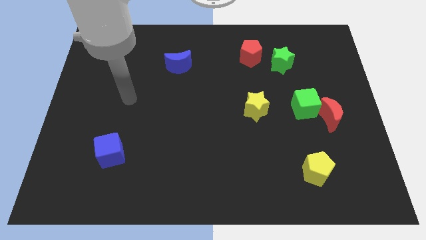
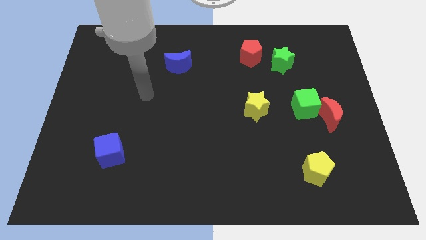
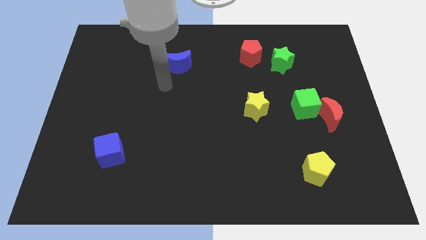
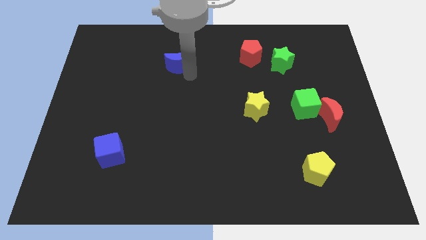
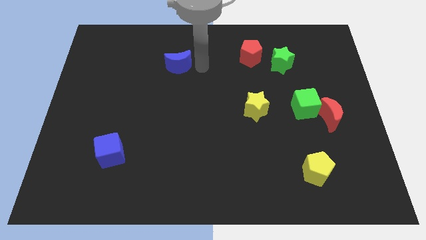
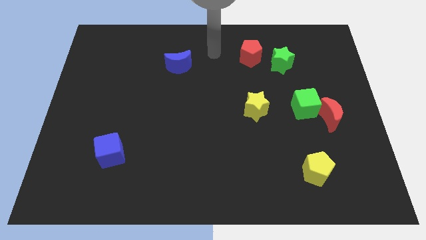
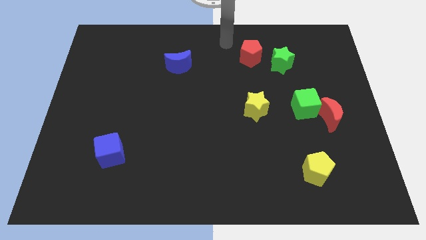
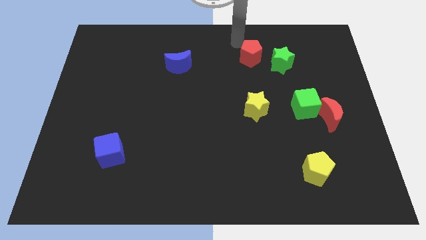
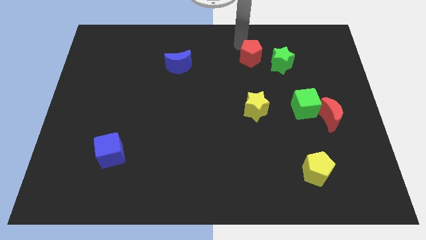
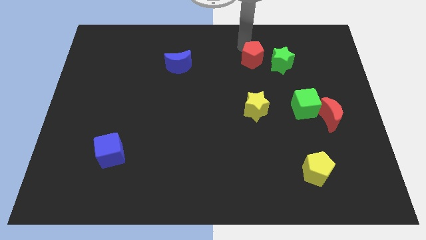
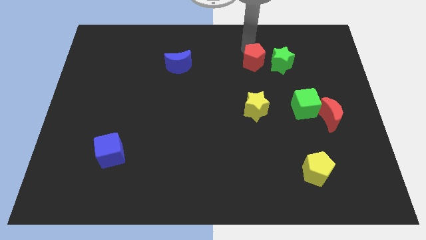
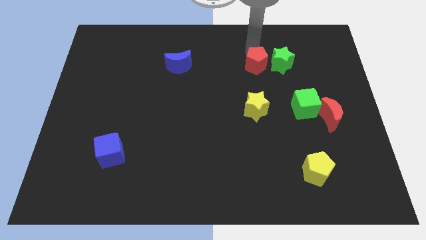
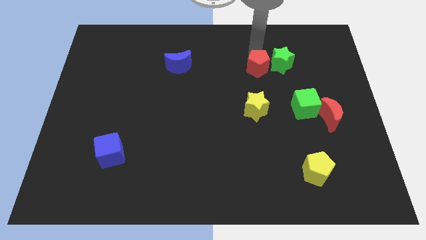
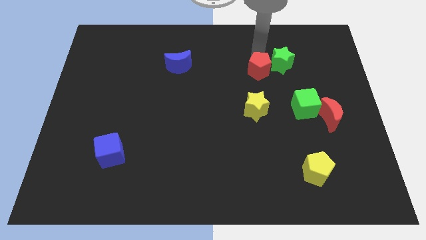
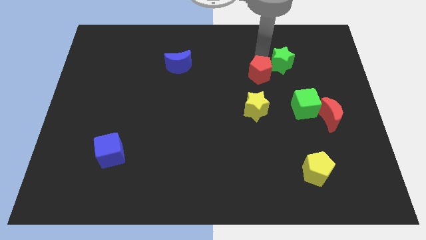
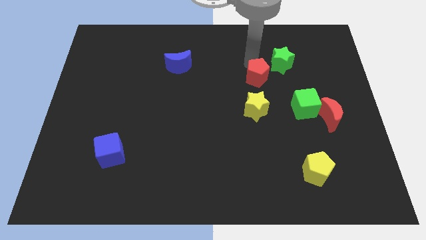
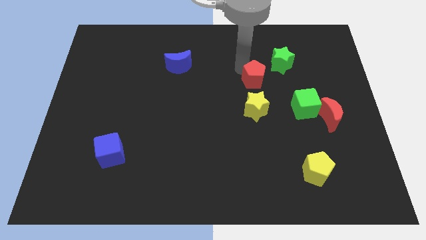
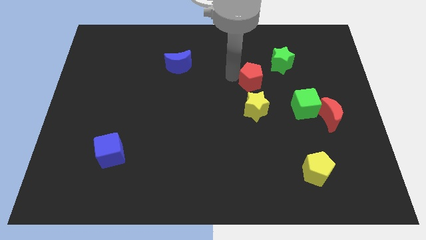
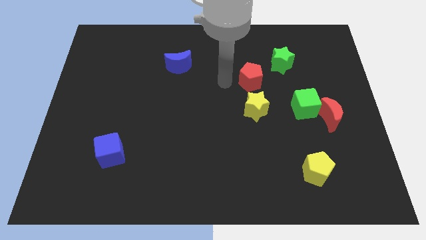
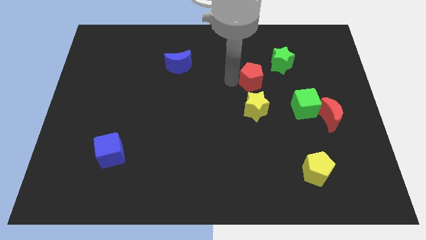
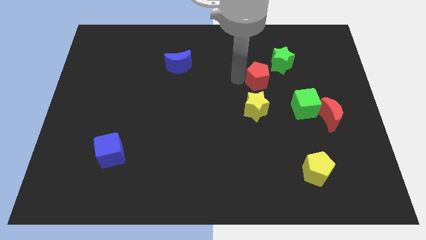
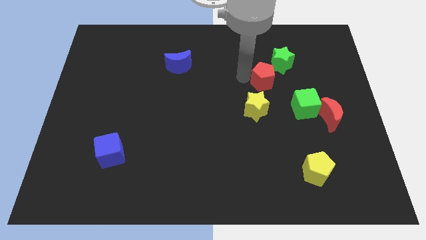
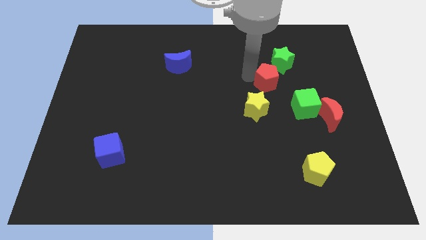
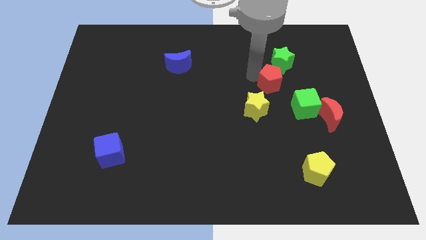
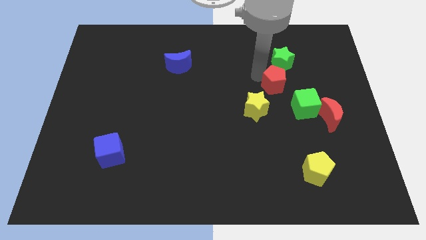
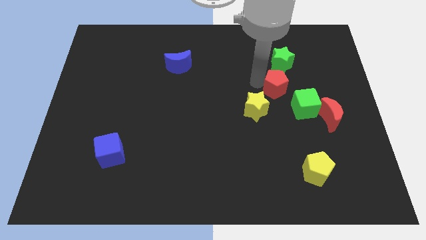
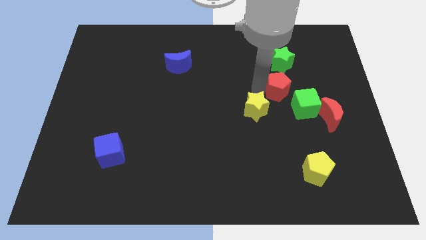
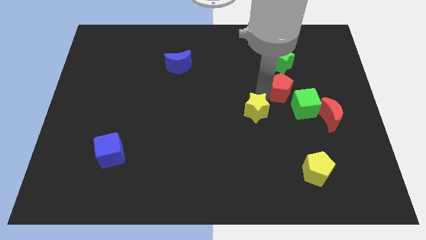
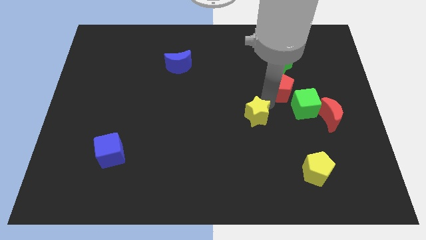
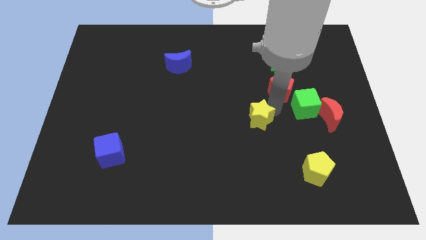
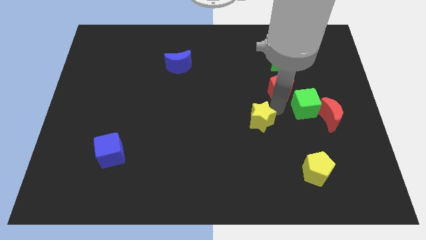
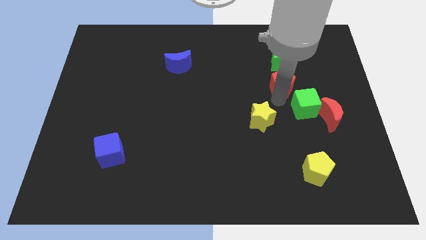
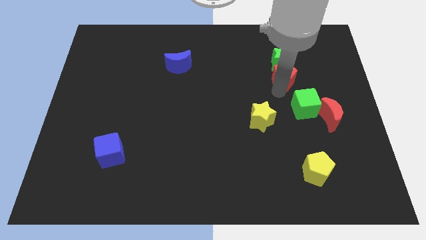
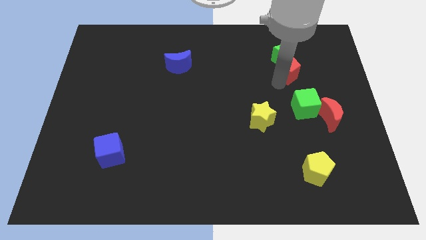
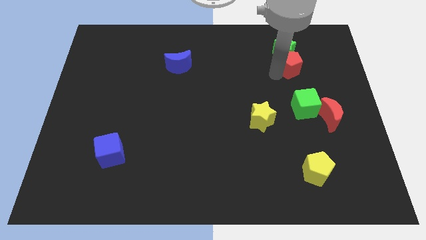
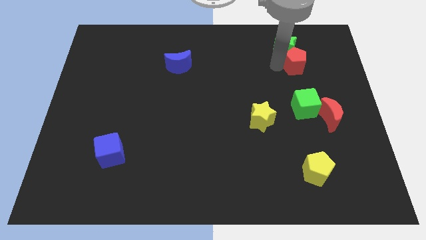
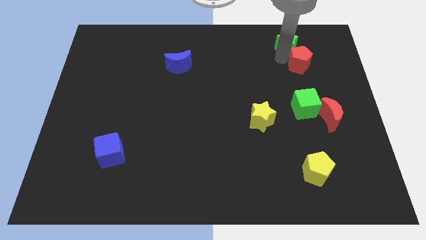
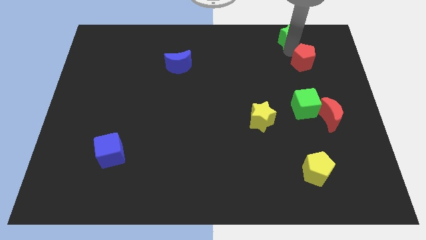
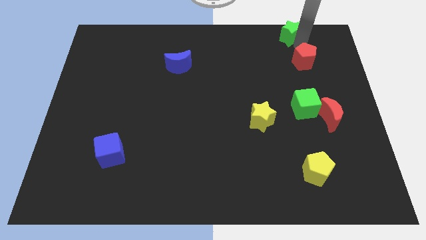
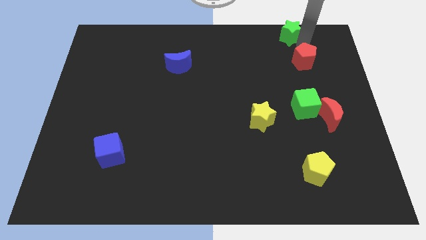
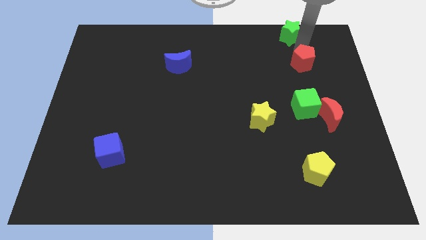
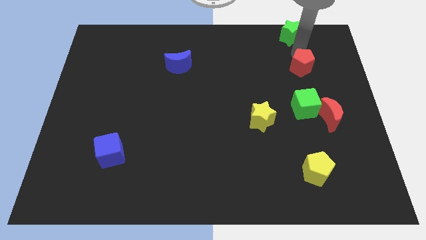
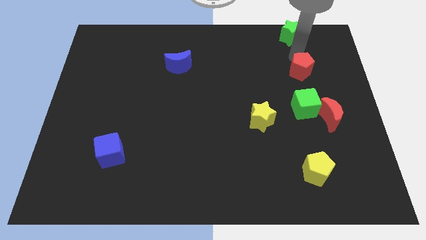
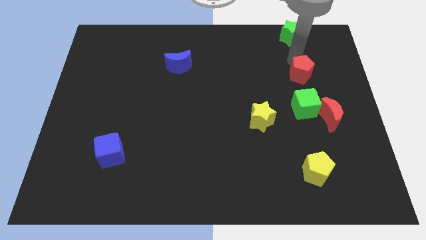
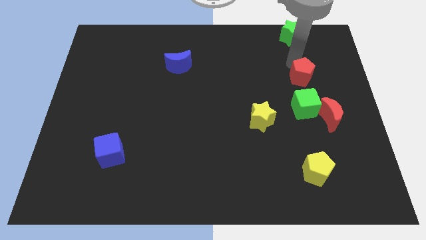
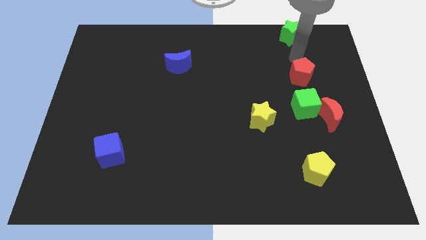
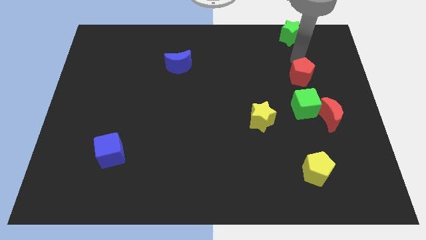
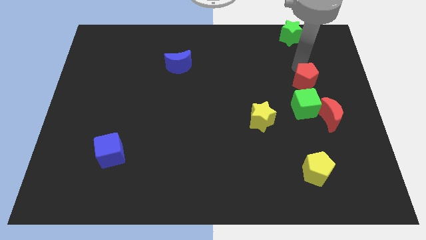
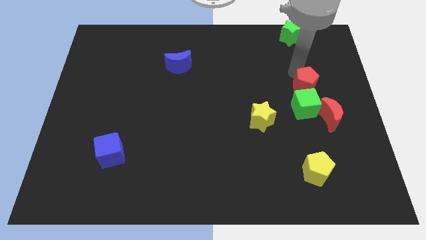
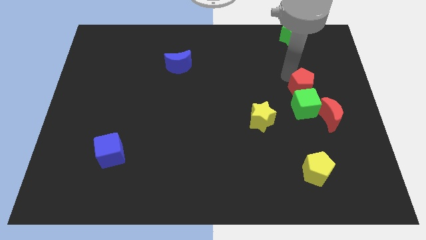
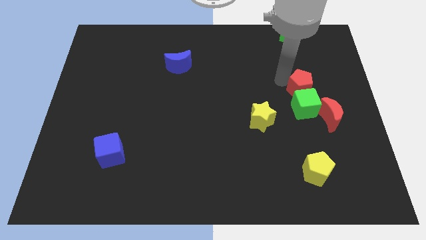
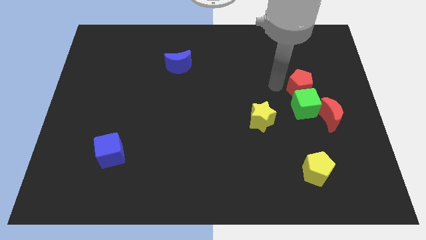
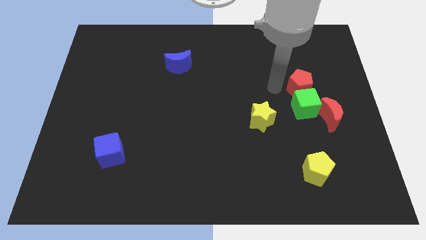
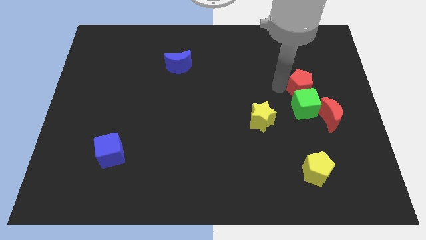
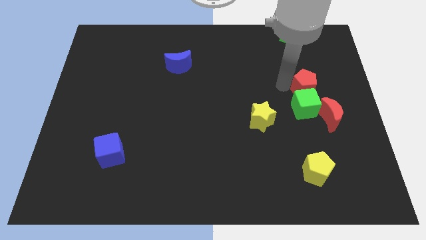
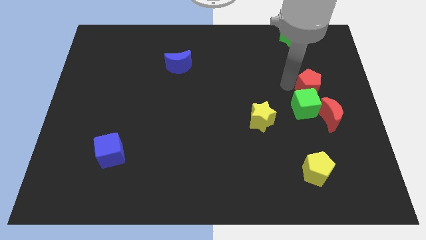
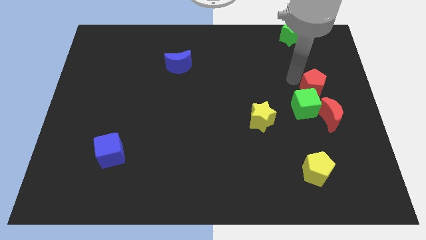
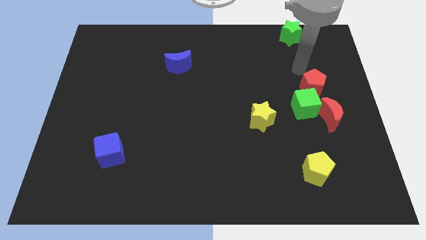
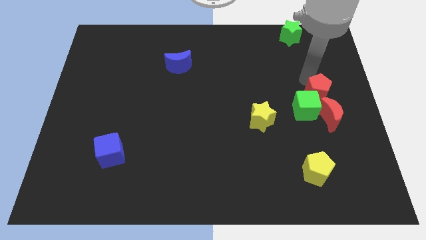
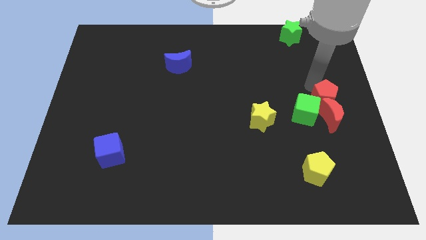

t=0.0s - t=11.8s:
move the red pentagon to the red moon

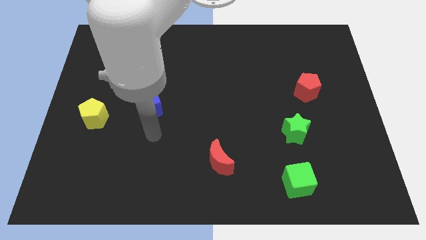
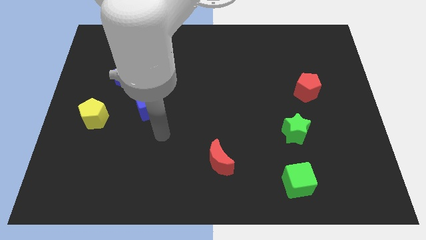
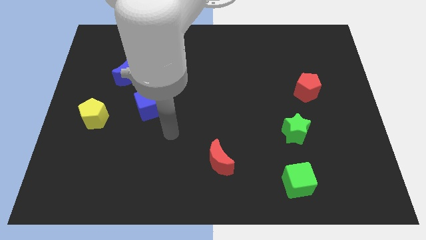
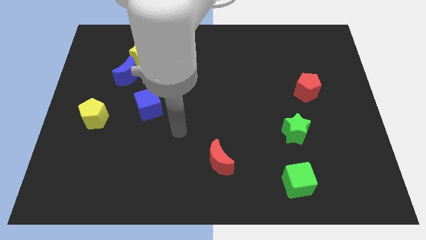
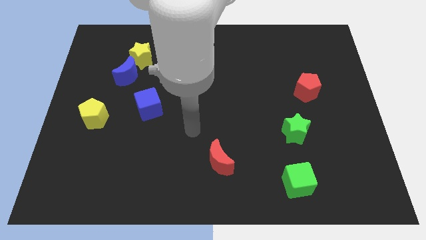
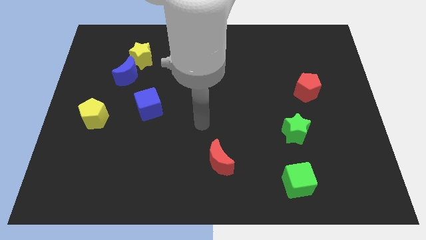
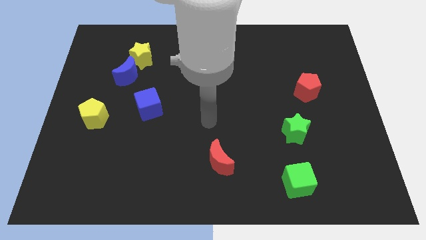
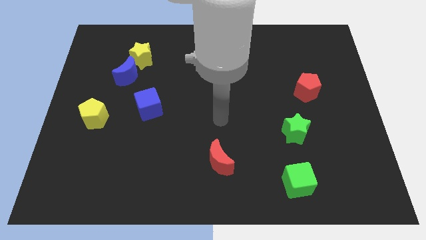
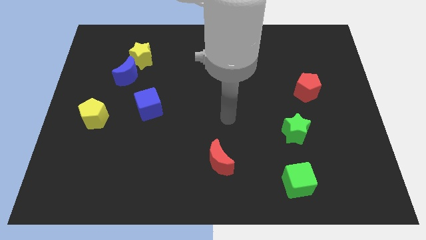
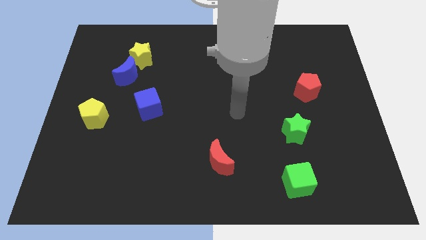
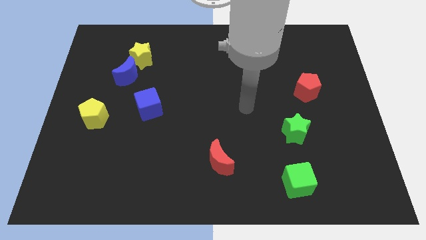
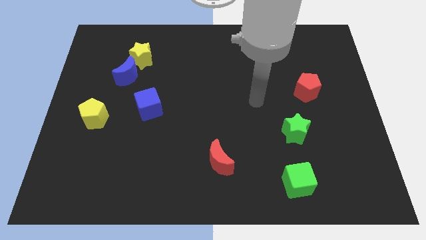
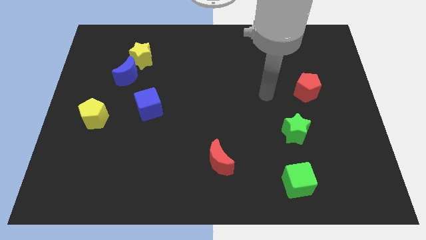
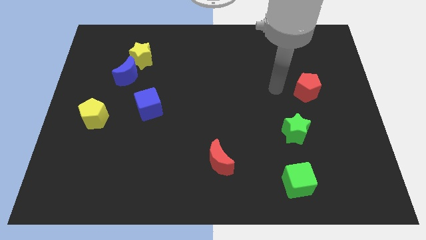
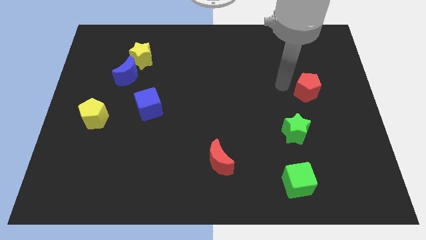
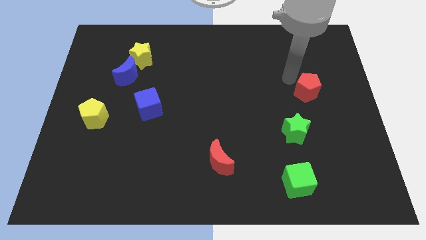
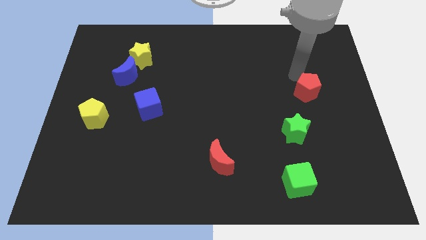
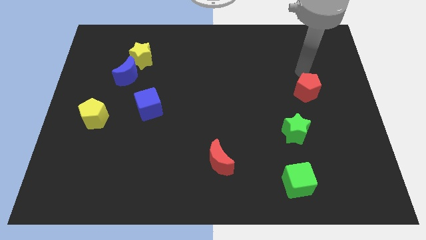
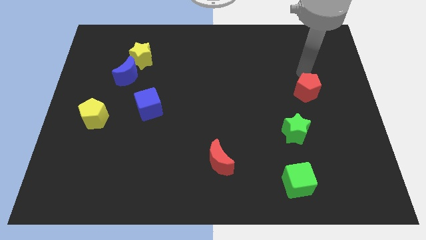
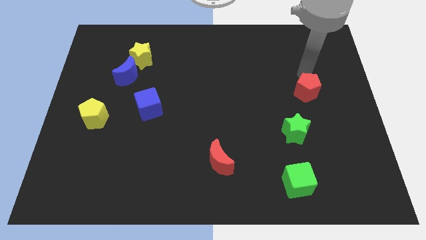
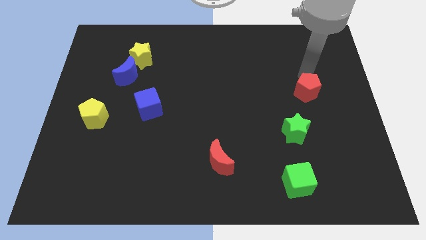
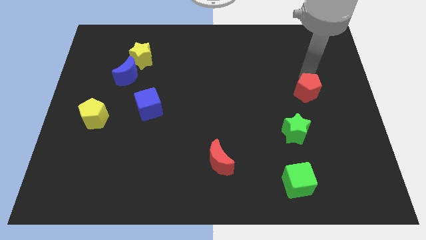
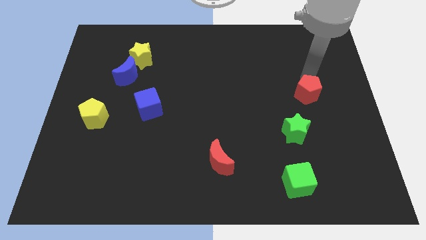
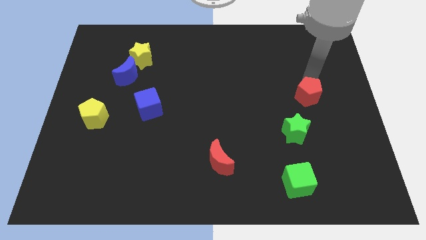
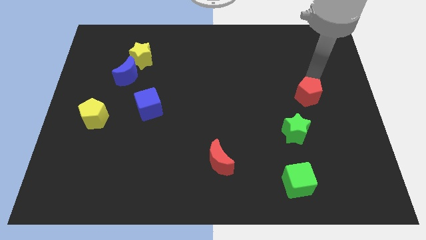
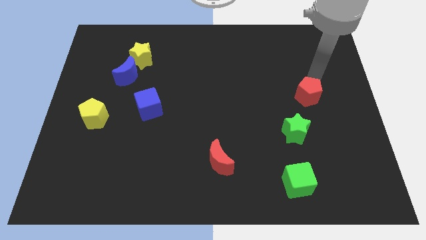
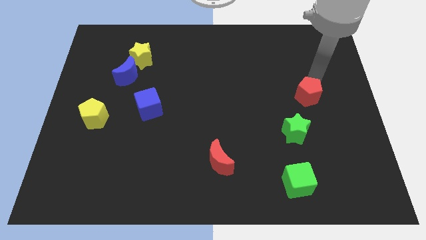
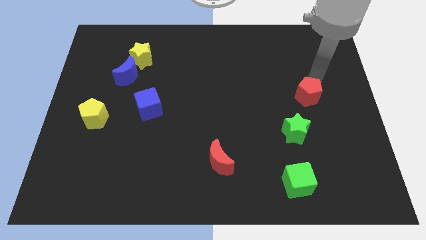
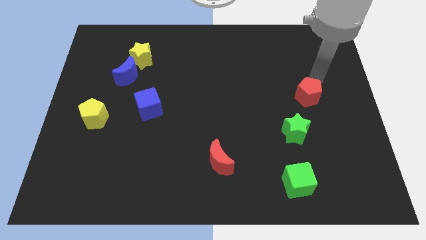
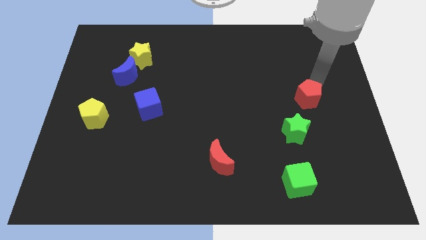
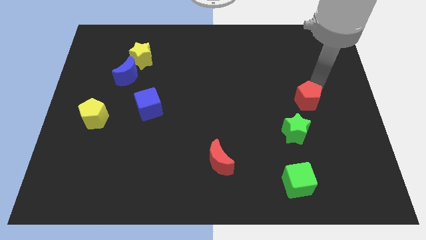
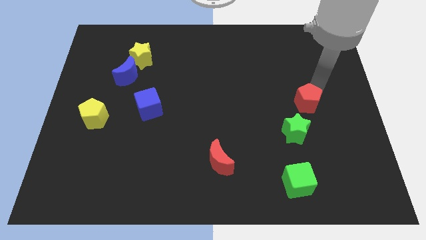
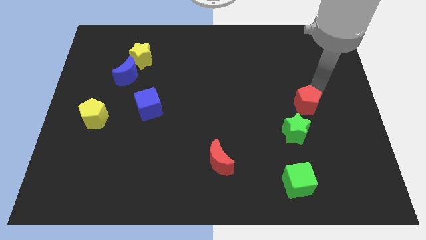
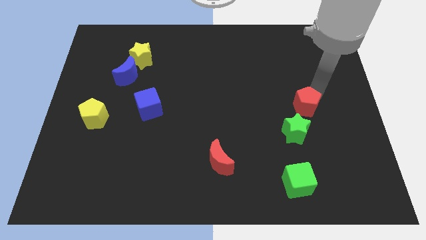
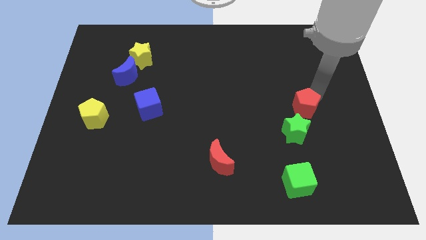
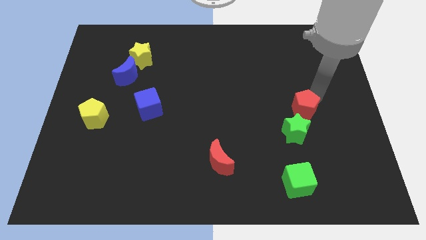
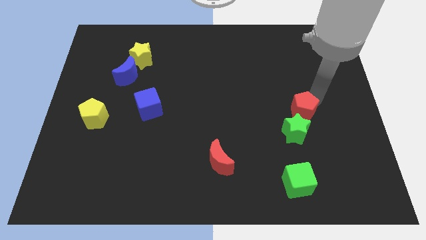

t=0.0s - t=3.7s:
put the red pentagon close to the green star
